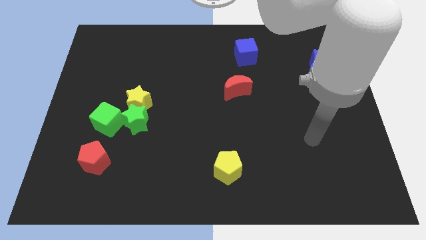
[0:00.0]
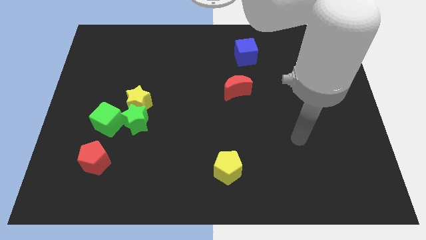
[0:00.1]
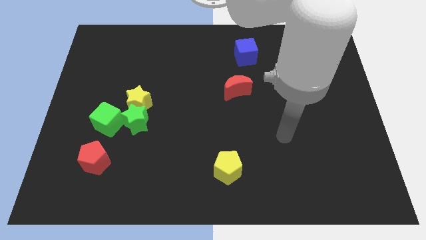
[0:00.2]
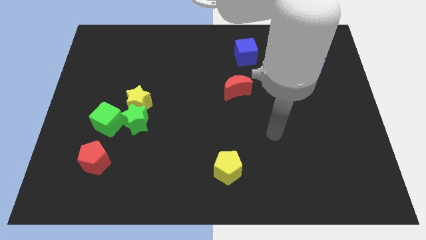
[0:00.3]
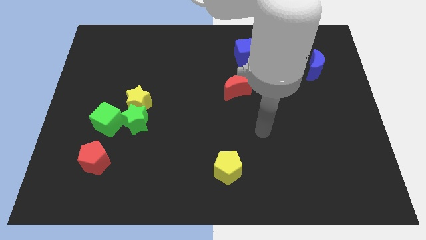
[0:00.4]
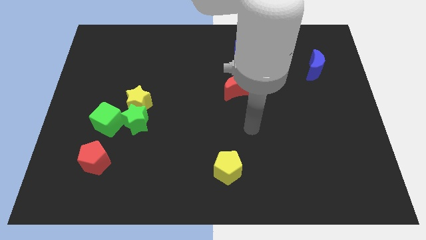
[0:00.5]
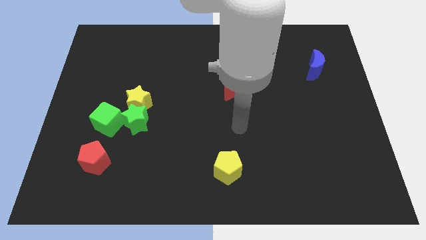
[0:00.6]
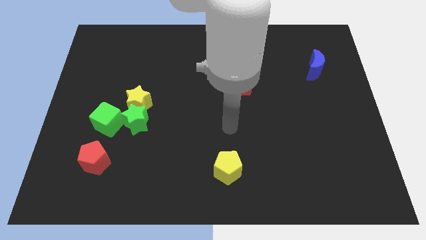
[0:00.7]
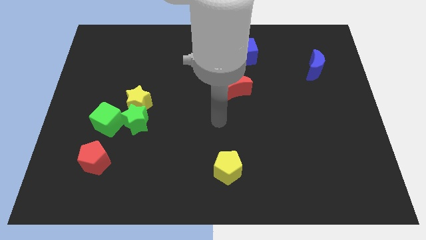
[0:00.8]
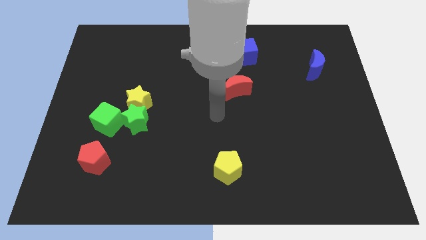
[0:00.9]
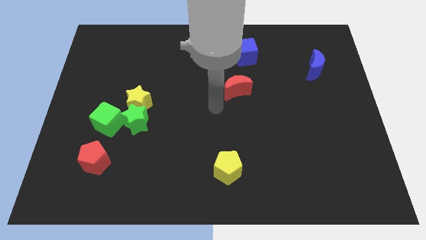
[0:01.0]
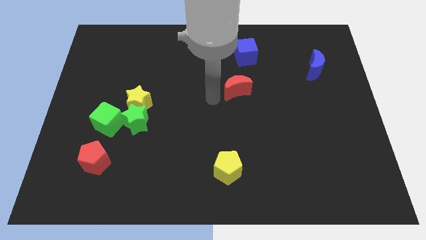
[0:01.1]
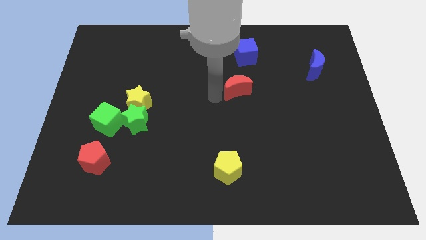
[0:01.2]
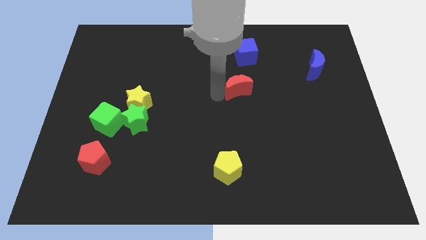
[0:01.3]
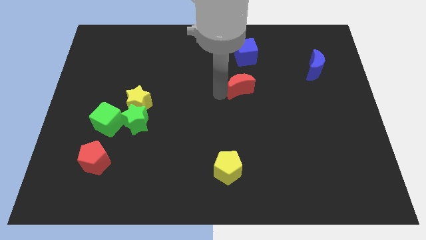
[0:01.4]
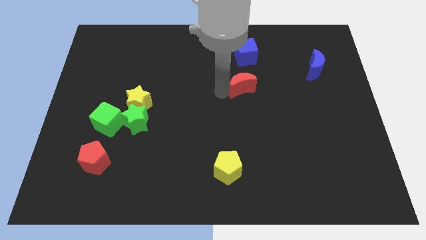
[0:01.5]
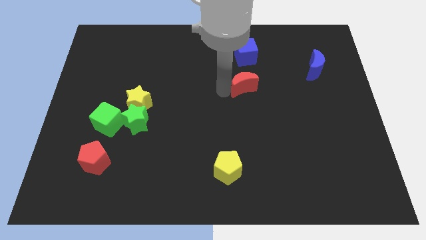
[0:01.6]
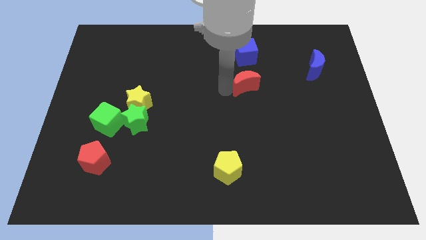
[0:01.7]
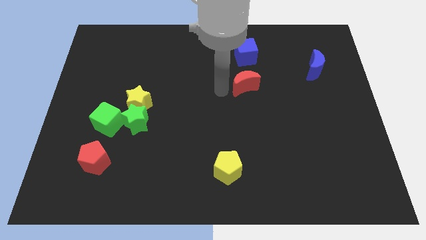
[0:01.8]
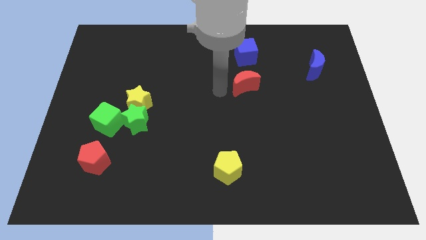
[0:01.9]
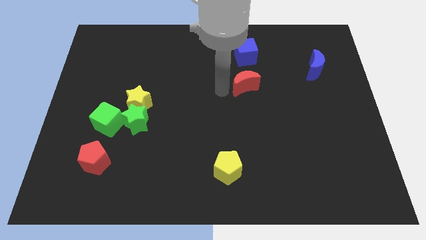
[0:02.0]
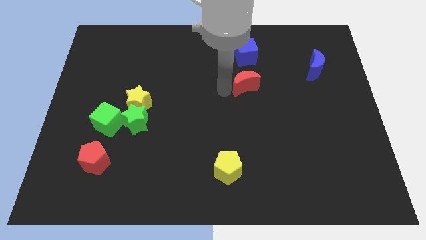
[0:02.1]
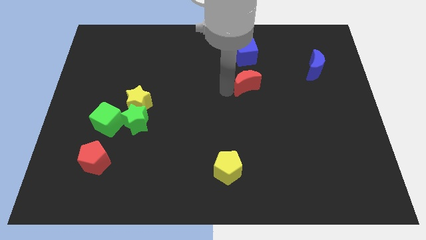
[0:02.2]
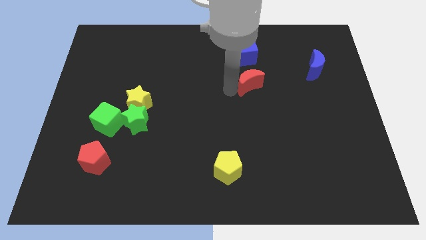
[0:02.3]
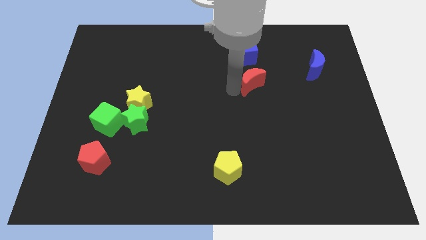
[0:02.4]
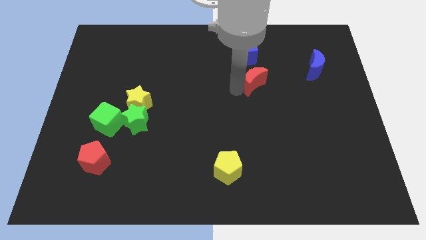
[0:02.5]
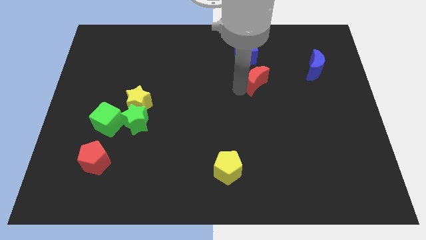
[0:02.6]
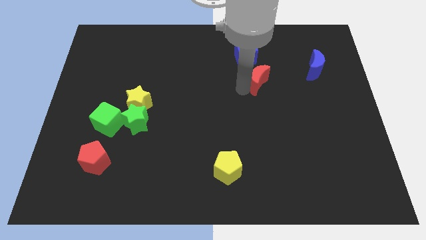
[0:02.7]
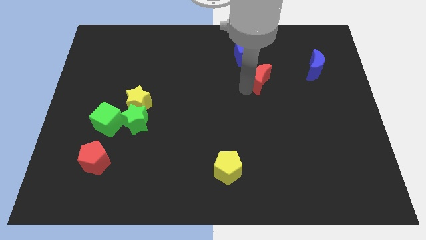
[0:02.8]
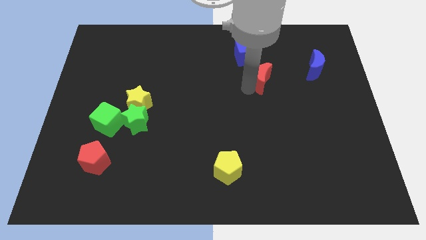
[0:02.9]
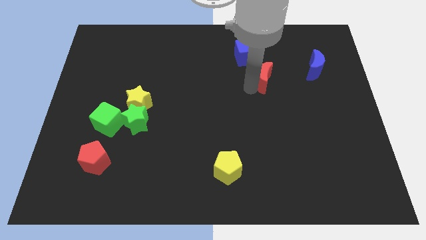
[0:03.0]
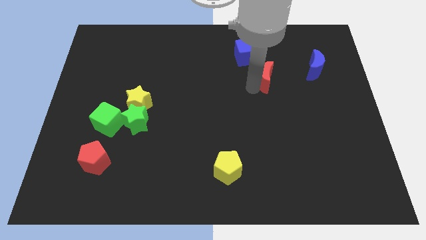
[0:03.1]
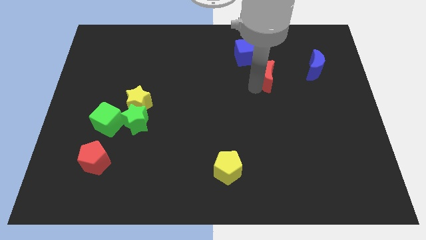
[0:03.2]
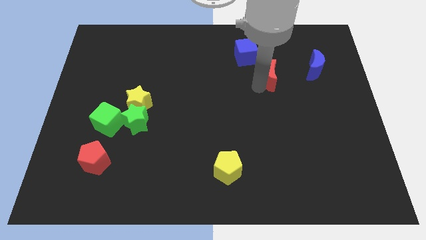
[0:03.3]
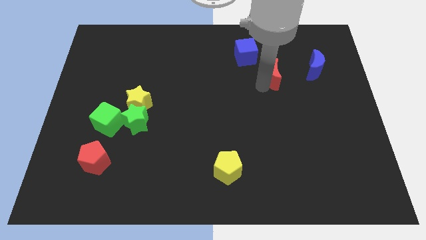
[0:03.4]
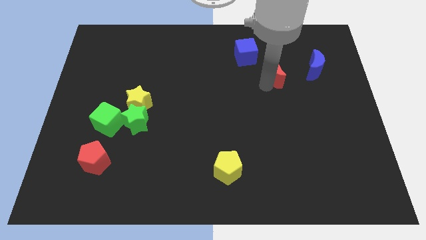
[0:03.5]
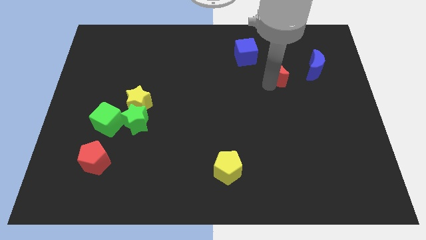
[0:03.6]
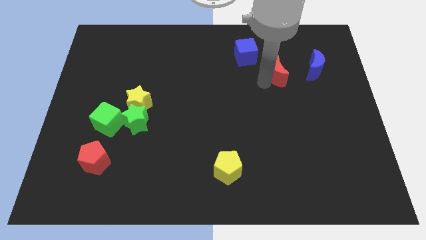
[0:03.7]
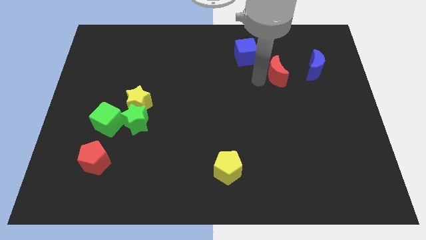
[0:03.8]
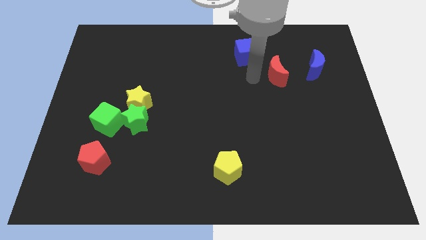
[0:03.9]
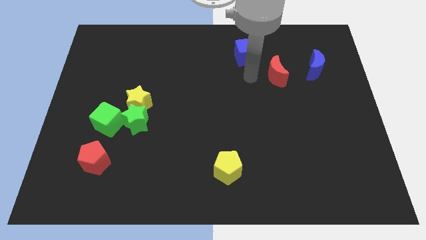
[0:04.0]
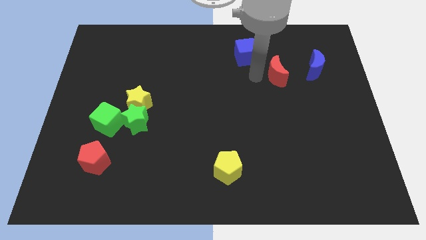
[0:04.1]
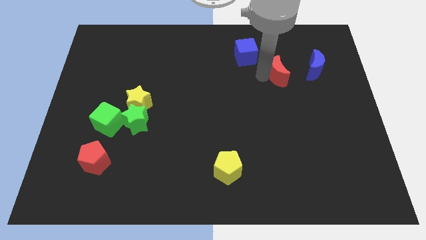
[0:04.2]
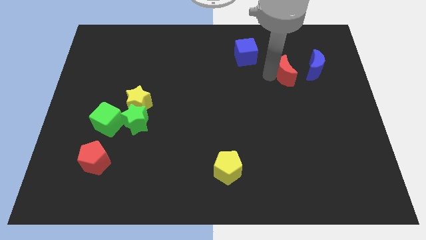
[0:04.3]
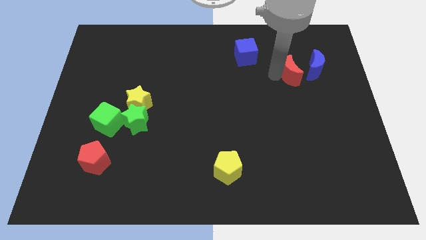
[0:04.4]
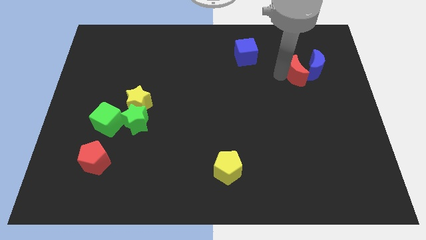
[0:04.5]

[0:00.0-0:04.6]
slide the red moon next to the blue moon

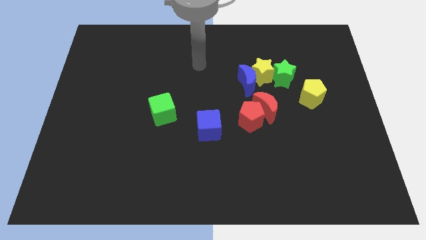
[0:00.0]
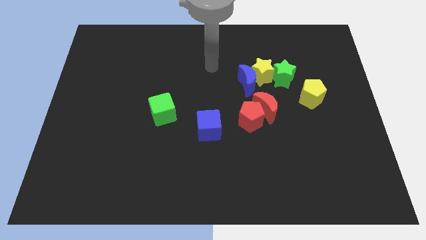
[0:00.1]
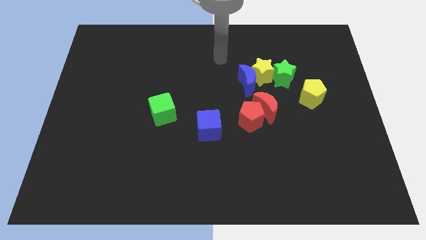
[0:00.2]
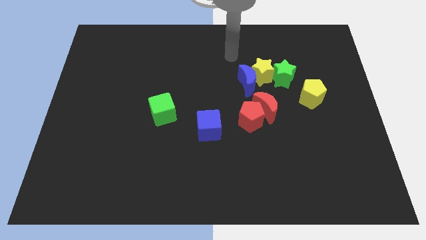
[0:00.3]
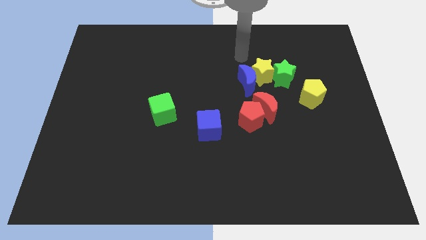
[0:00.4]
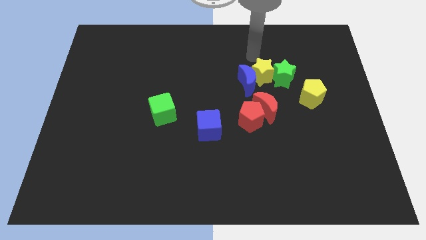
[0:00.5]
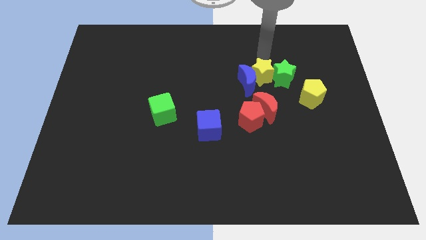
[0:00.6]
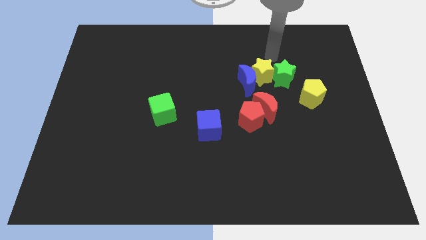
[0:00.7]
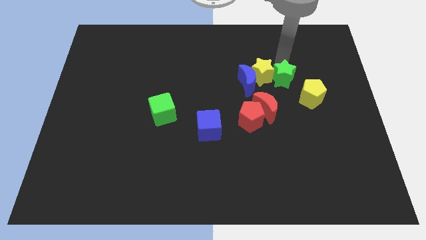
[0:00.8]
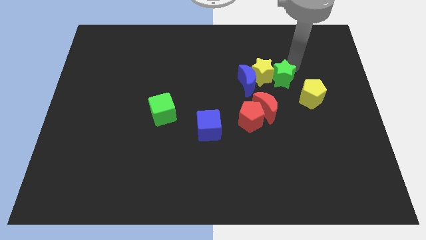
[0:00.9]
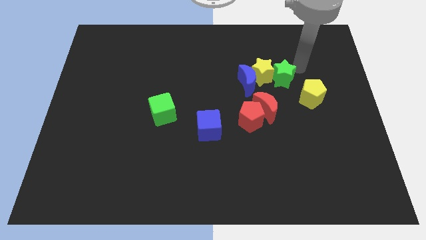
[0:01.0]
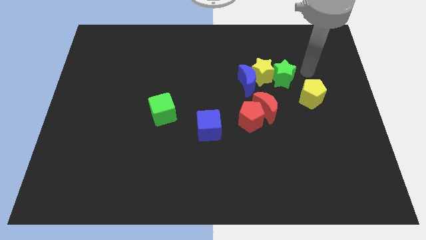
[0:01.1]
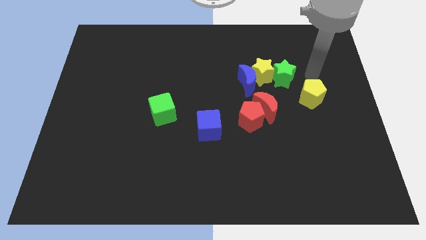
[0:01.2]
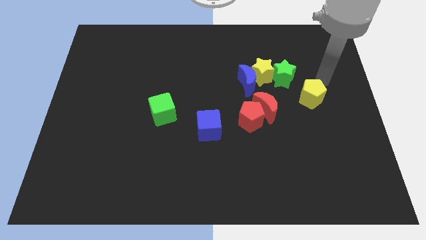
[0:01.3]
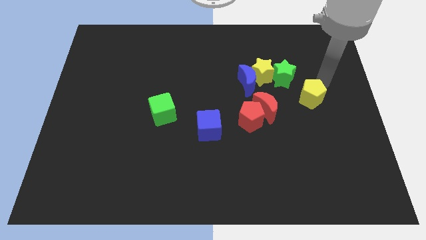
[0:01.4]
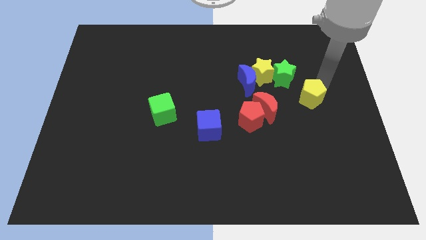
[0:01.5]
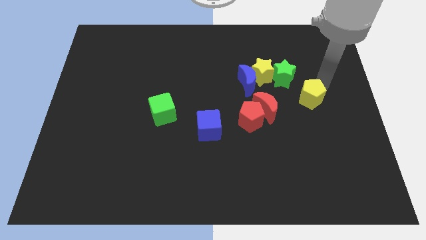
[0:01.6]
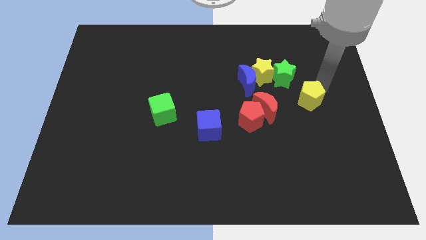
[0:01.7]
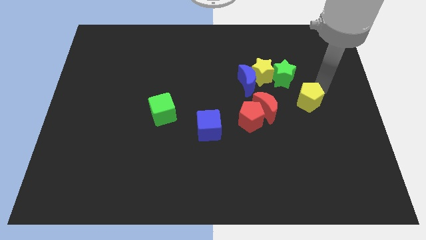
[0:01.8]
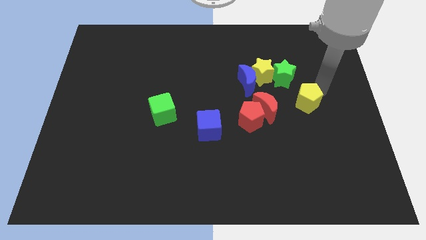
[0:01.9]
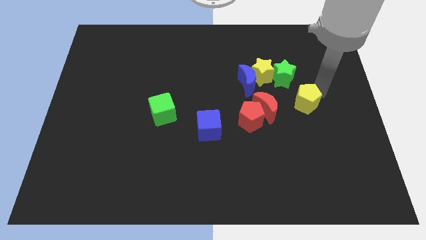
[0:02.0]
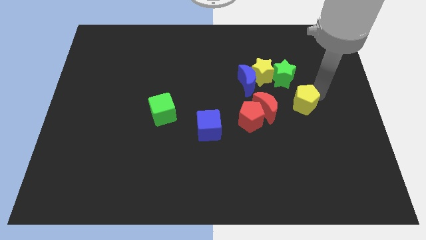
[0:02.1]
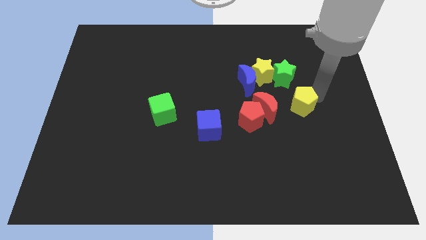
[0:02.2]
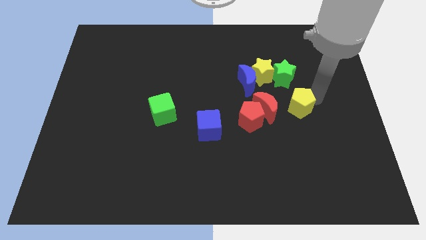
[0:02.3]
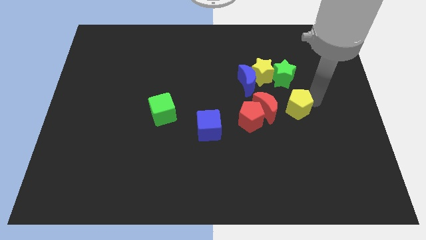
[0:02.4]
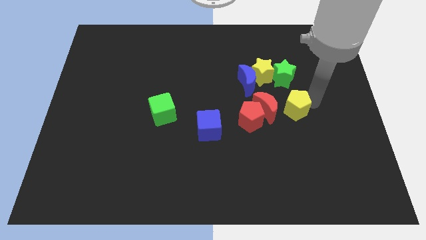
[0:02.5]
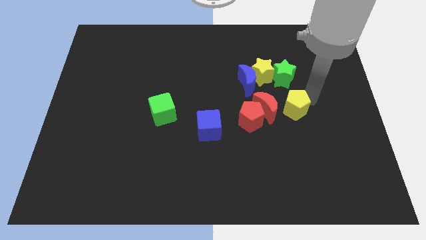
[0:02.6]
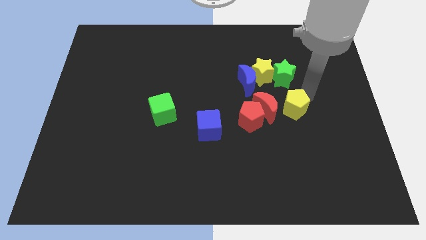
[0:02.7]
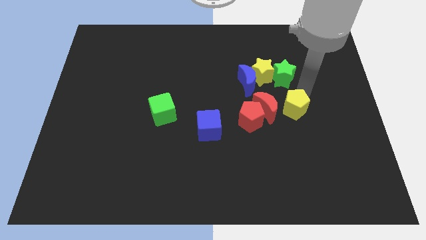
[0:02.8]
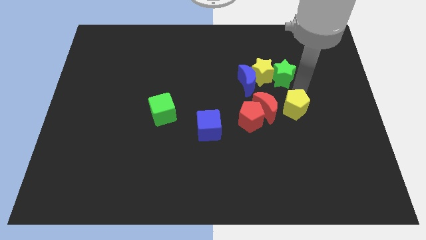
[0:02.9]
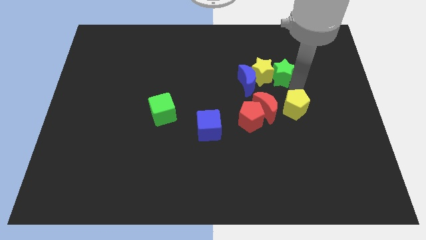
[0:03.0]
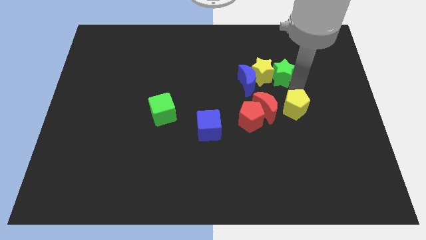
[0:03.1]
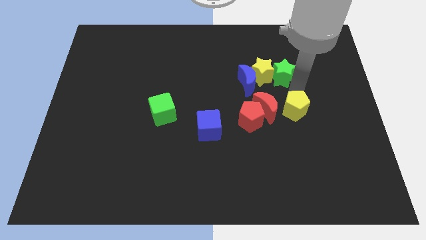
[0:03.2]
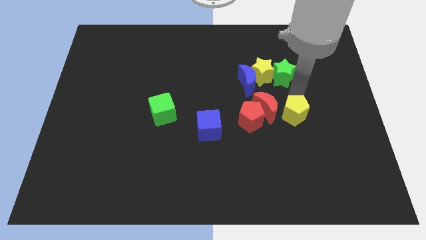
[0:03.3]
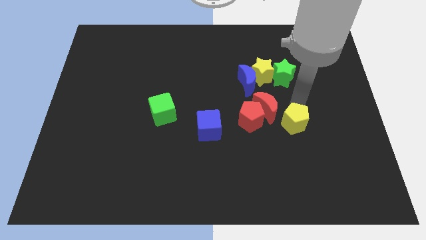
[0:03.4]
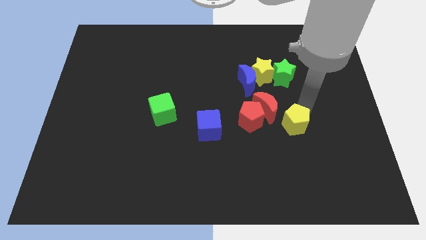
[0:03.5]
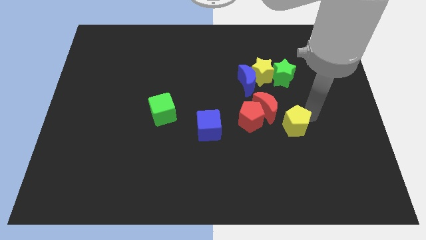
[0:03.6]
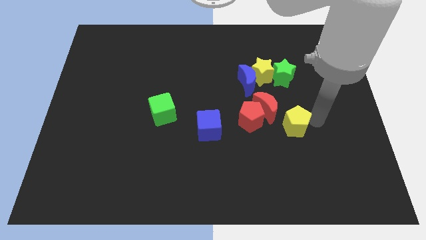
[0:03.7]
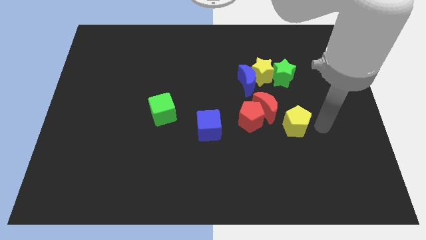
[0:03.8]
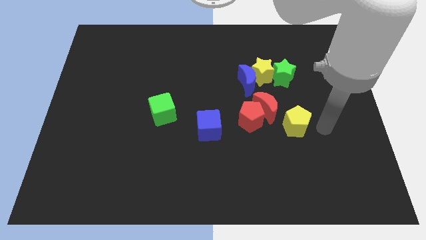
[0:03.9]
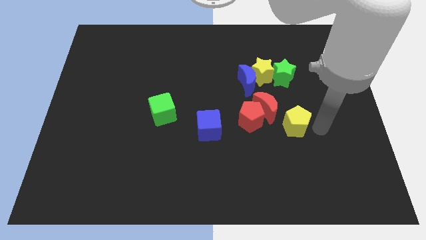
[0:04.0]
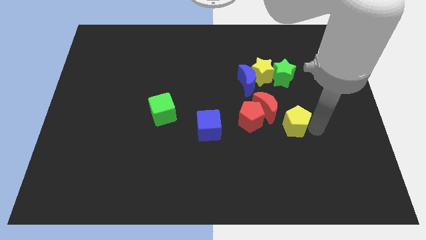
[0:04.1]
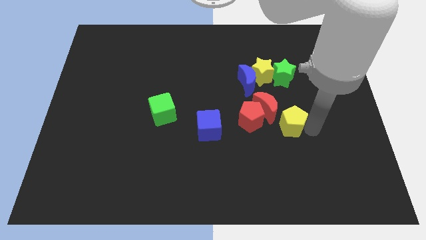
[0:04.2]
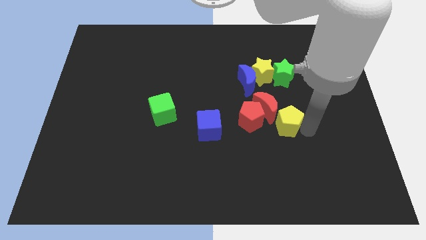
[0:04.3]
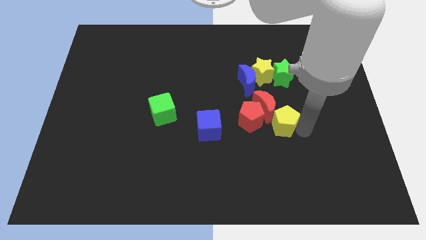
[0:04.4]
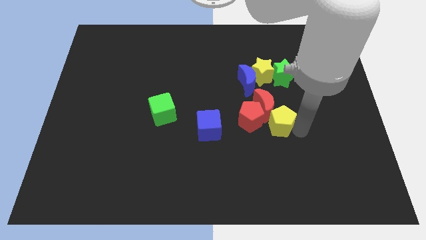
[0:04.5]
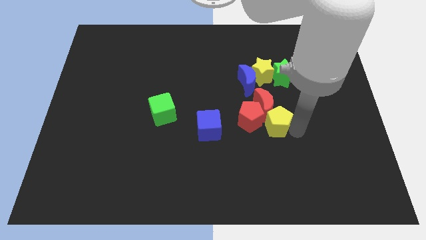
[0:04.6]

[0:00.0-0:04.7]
put the yellow pentagon towards the red pentagon
